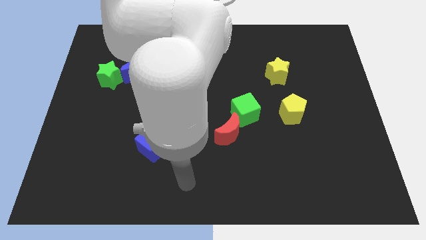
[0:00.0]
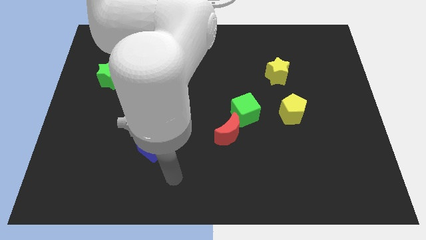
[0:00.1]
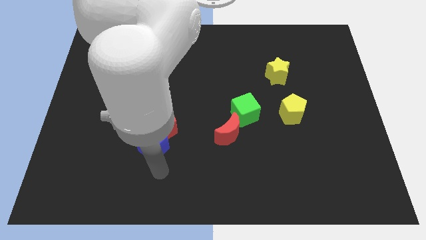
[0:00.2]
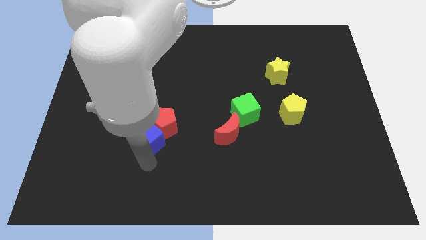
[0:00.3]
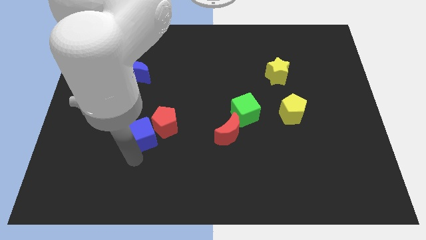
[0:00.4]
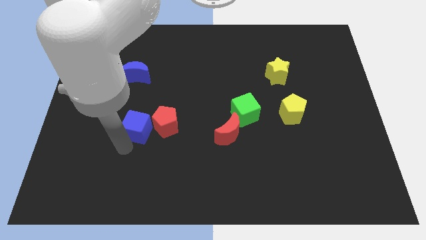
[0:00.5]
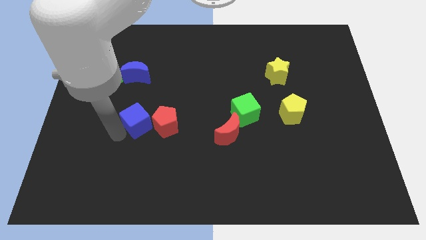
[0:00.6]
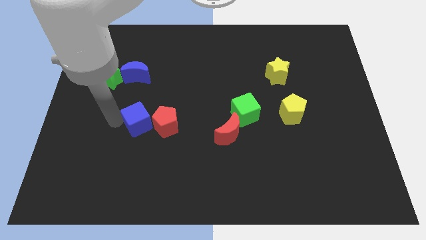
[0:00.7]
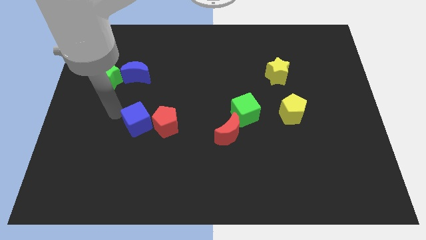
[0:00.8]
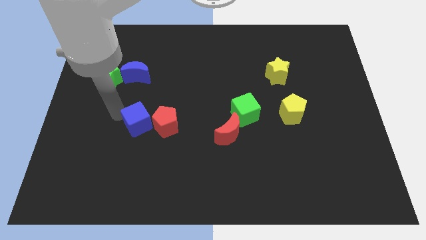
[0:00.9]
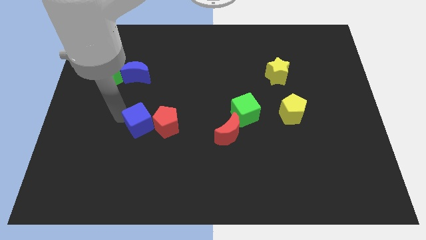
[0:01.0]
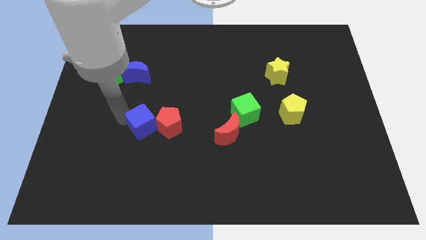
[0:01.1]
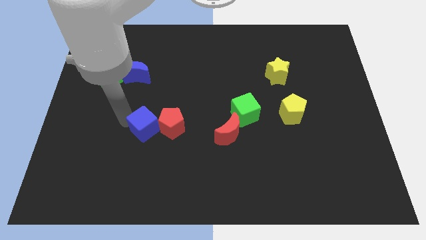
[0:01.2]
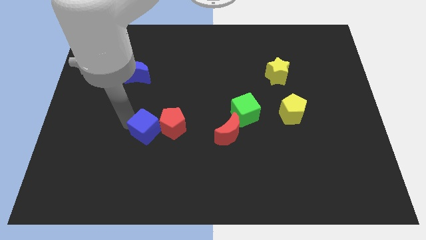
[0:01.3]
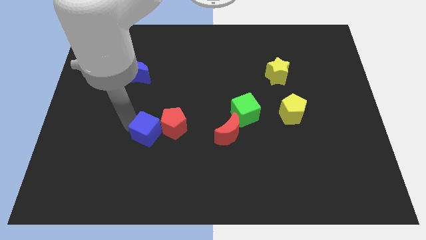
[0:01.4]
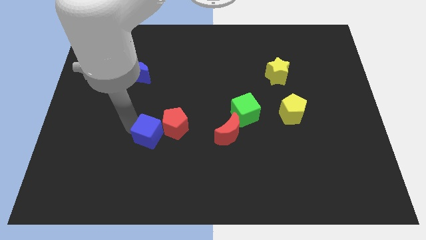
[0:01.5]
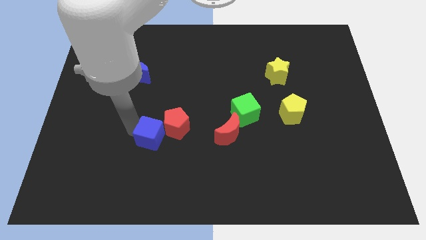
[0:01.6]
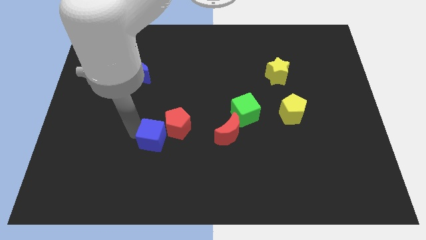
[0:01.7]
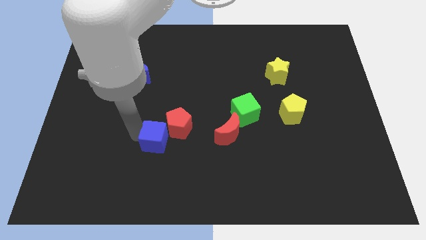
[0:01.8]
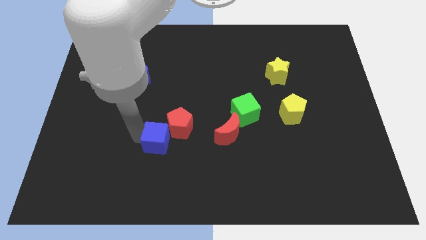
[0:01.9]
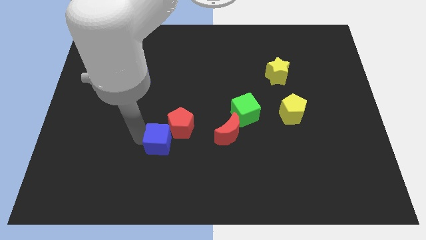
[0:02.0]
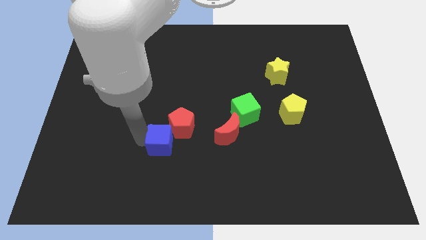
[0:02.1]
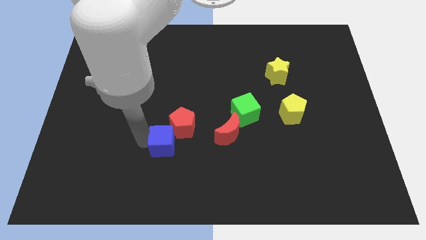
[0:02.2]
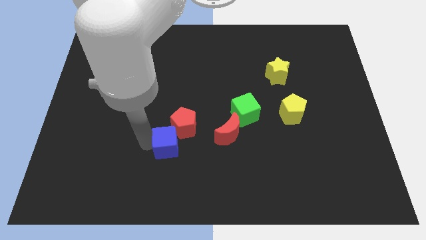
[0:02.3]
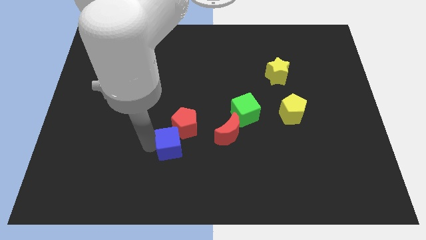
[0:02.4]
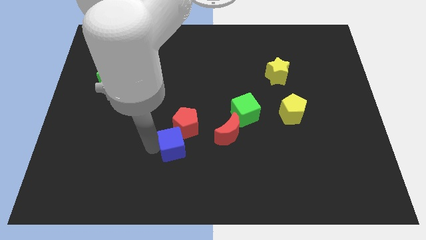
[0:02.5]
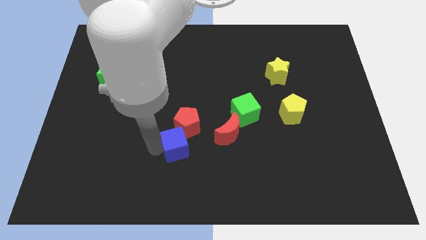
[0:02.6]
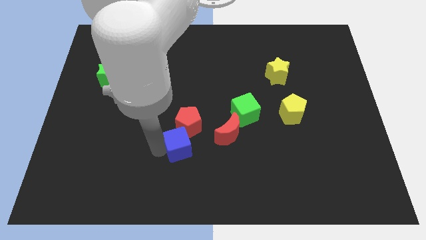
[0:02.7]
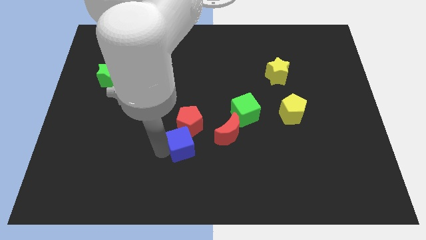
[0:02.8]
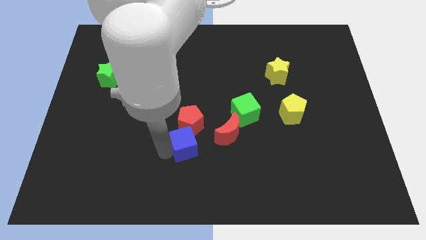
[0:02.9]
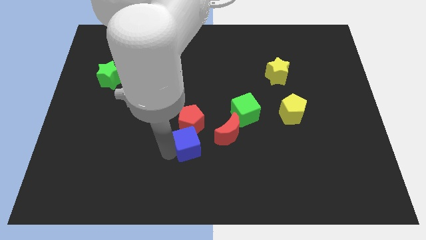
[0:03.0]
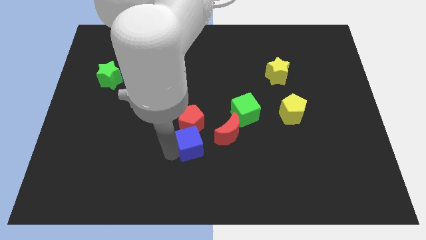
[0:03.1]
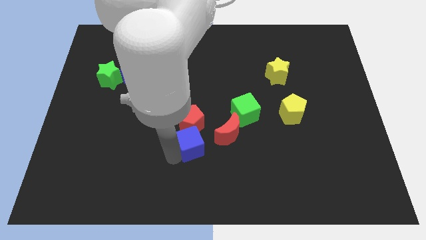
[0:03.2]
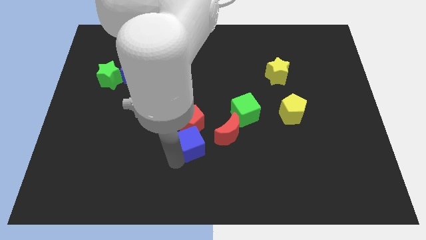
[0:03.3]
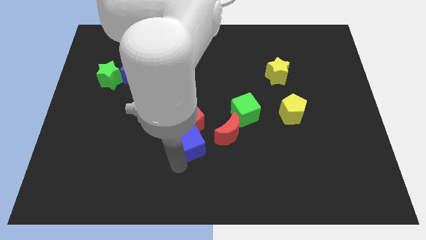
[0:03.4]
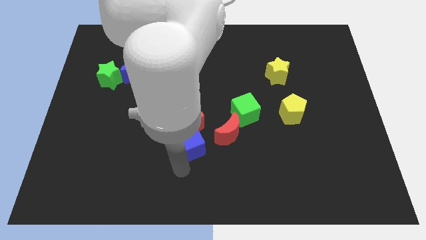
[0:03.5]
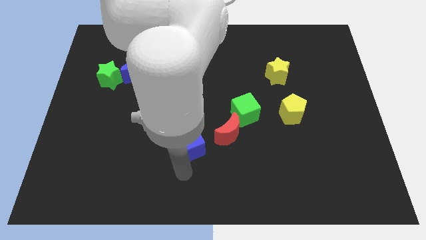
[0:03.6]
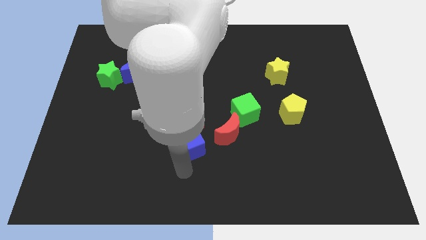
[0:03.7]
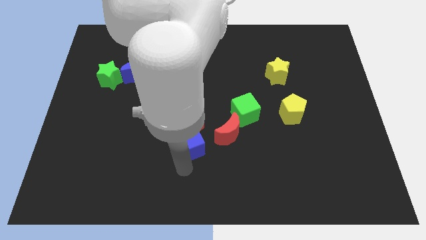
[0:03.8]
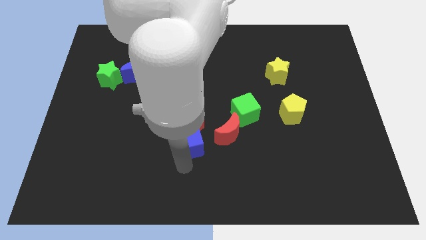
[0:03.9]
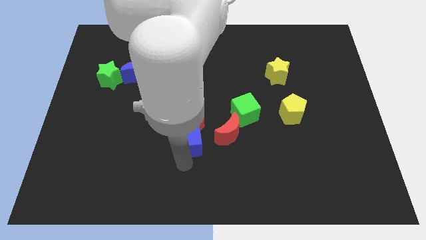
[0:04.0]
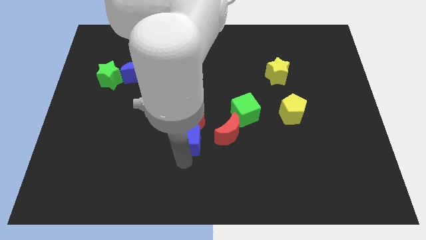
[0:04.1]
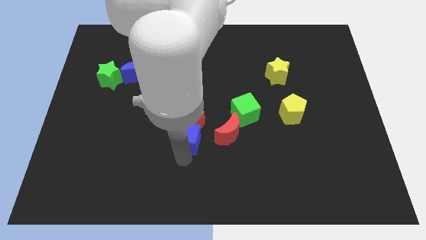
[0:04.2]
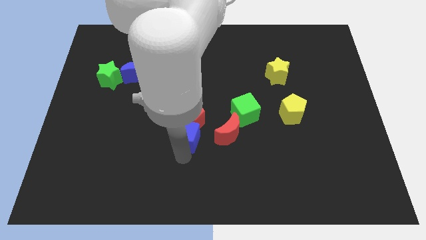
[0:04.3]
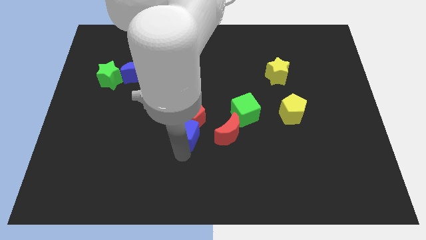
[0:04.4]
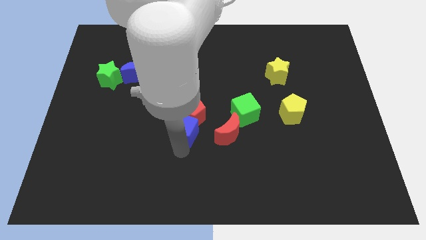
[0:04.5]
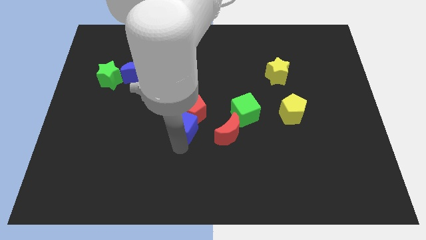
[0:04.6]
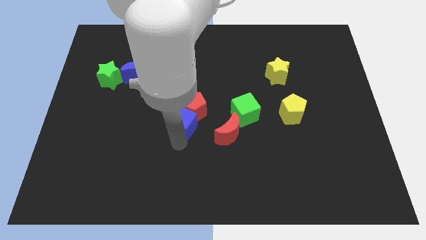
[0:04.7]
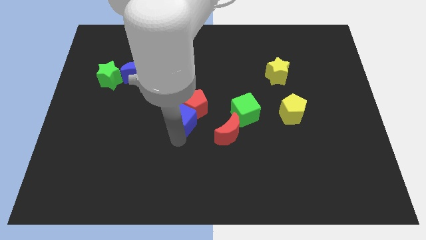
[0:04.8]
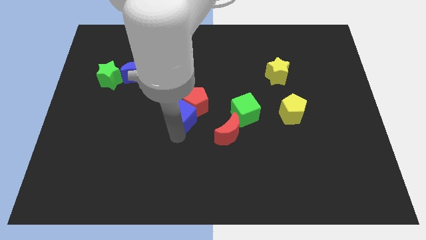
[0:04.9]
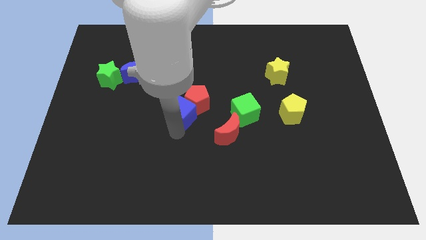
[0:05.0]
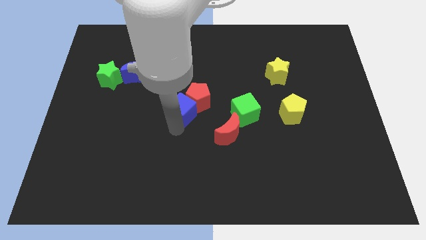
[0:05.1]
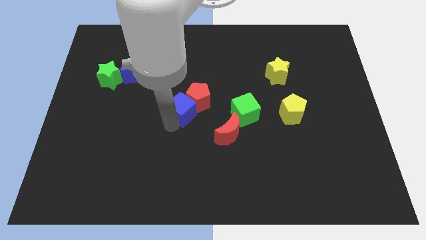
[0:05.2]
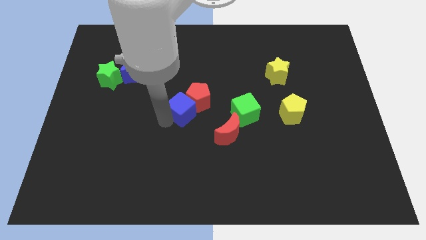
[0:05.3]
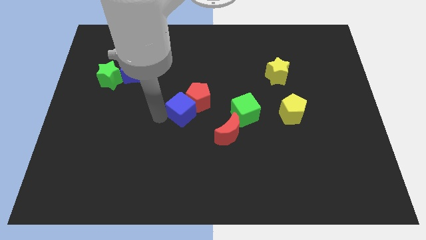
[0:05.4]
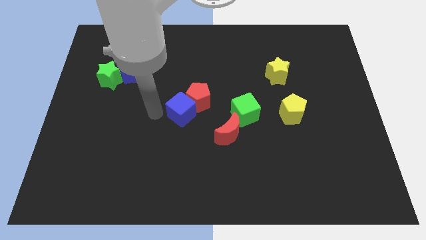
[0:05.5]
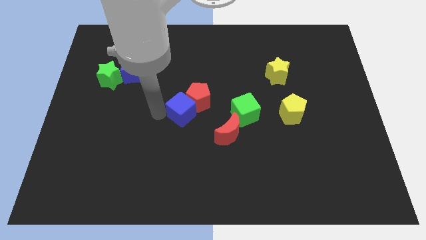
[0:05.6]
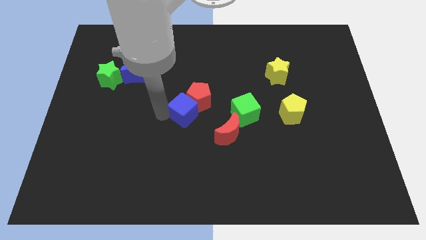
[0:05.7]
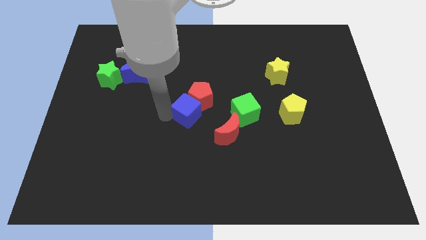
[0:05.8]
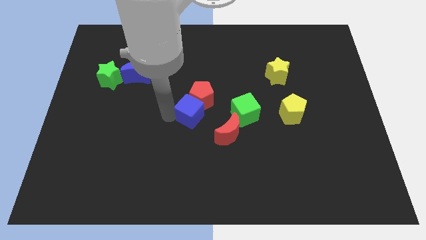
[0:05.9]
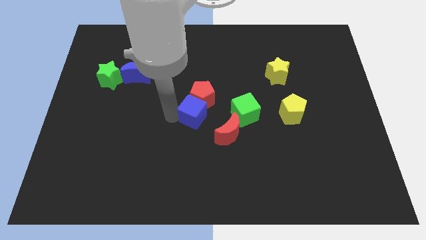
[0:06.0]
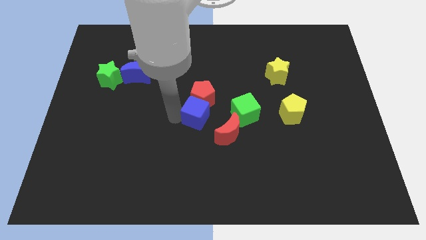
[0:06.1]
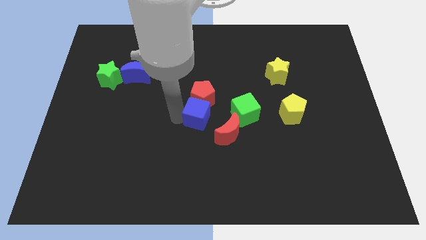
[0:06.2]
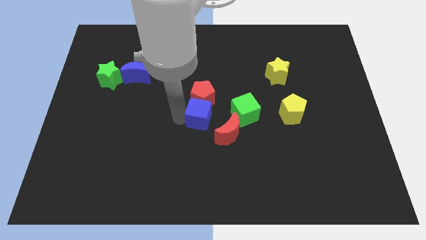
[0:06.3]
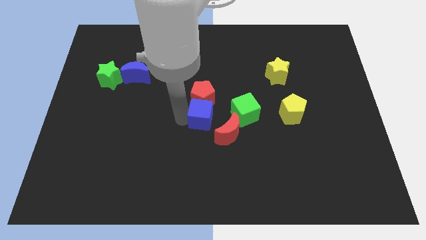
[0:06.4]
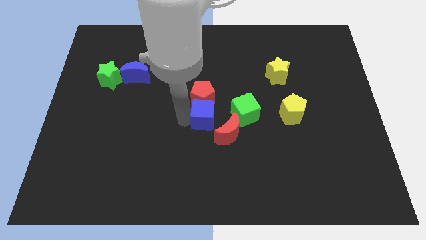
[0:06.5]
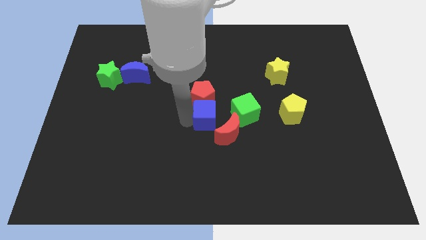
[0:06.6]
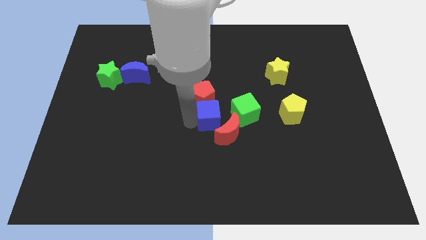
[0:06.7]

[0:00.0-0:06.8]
push the blue cube to the top side of the red moon
